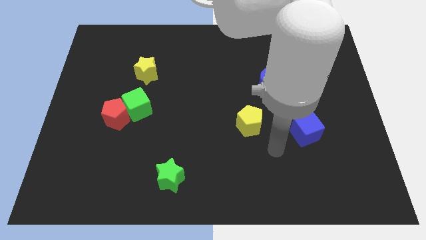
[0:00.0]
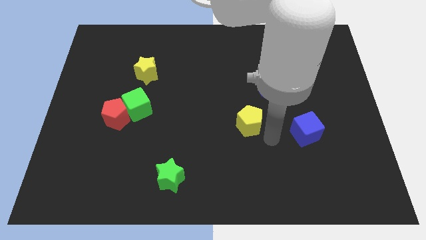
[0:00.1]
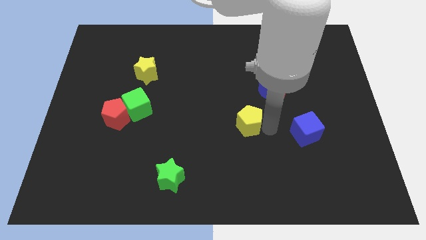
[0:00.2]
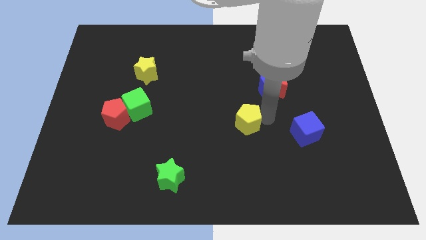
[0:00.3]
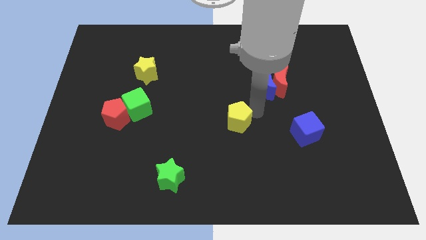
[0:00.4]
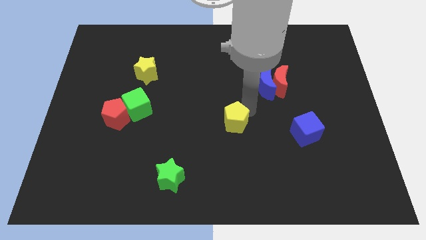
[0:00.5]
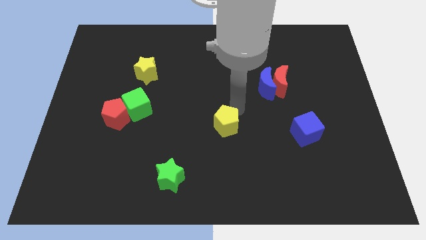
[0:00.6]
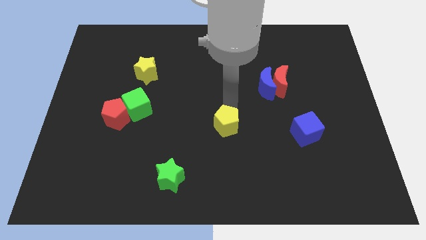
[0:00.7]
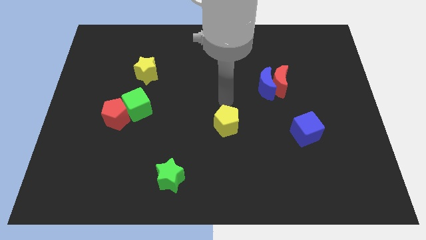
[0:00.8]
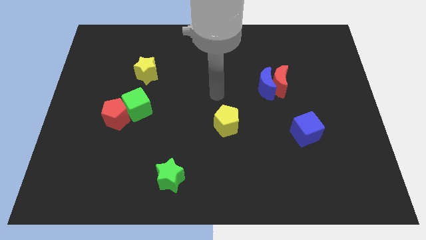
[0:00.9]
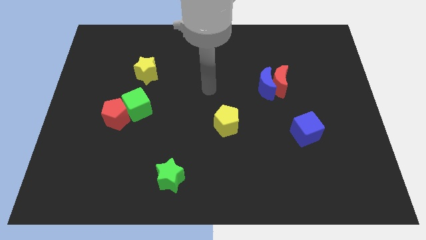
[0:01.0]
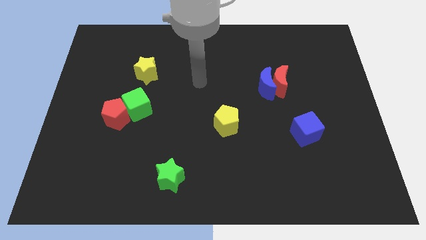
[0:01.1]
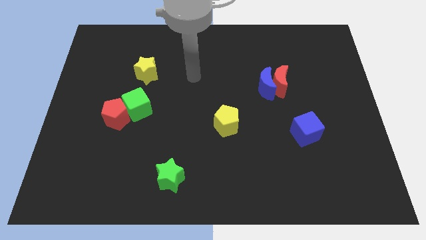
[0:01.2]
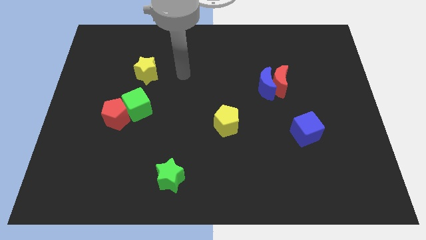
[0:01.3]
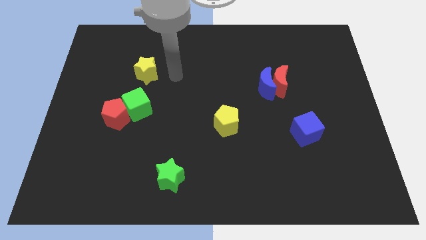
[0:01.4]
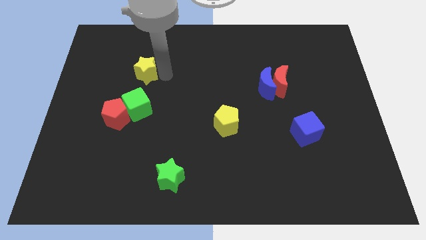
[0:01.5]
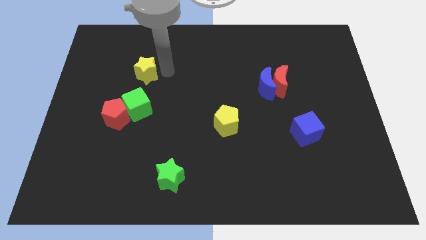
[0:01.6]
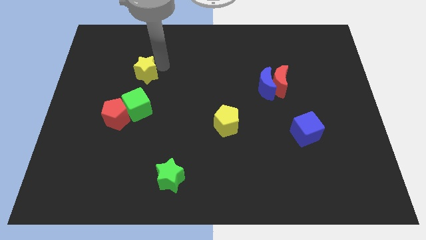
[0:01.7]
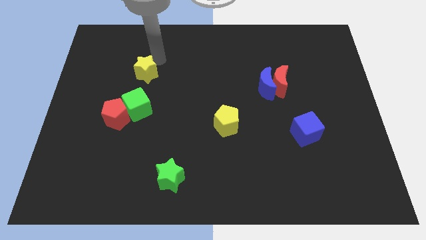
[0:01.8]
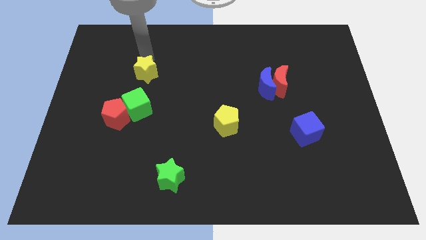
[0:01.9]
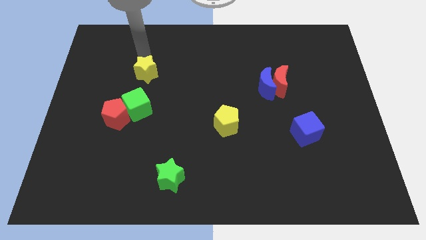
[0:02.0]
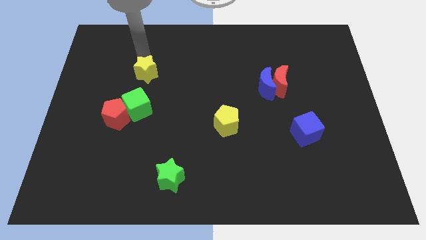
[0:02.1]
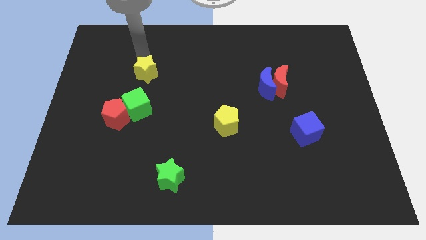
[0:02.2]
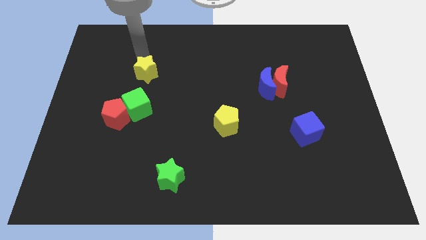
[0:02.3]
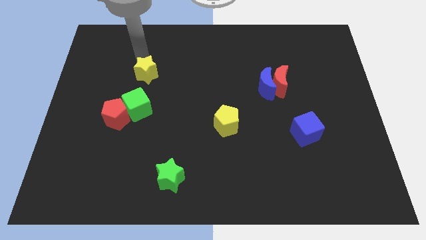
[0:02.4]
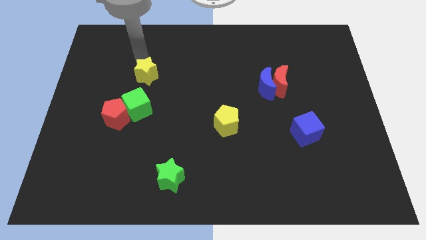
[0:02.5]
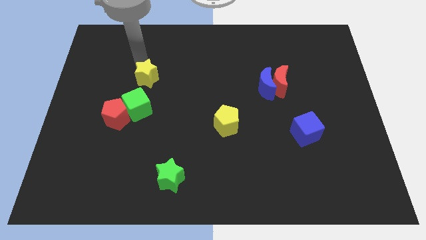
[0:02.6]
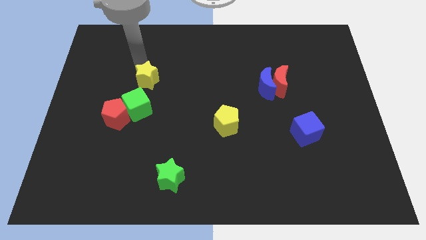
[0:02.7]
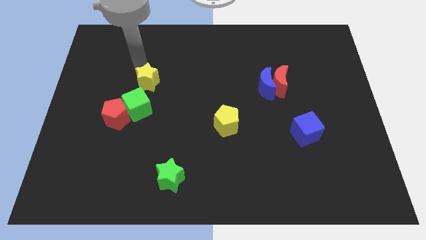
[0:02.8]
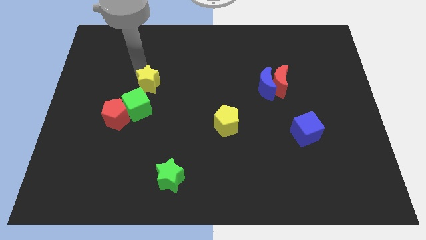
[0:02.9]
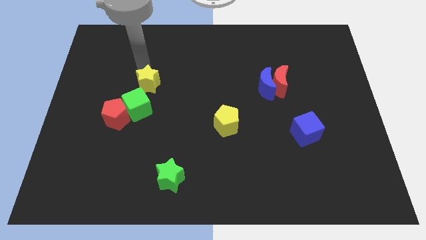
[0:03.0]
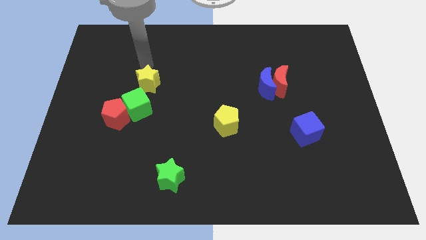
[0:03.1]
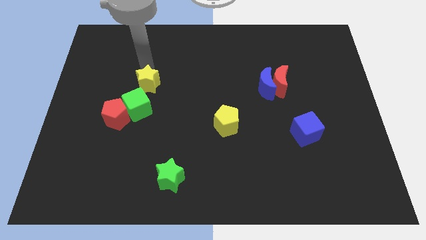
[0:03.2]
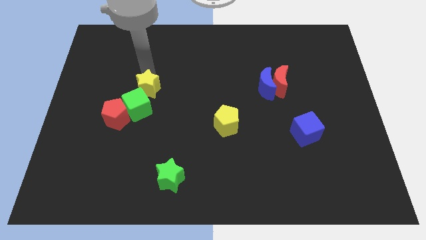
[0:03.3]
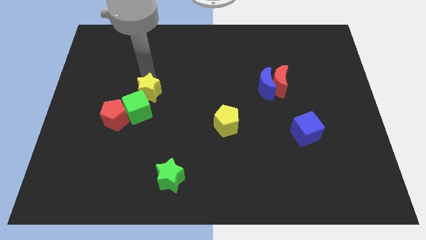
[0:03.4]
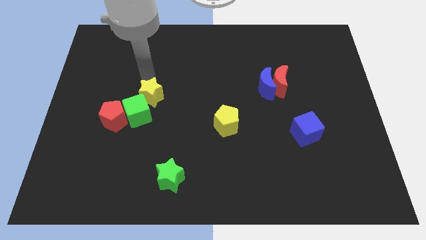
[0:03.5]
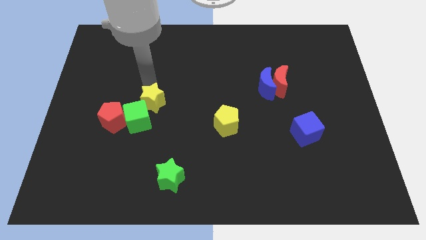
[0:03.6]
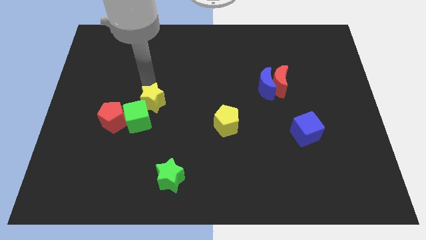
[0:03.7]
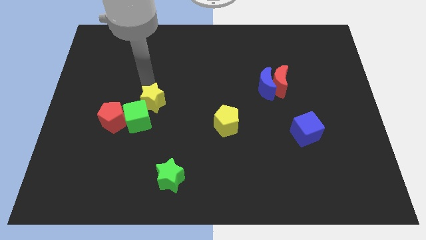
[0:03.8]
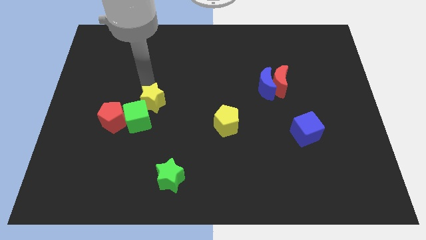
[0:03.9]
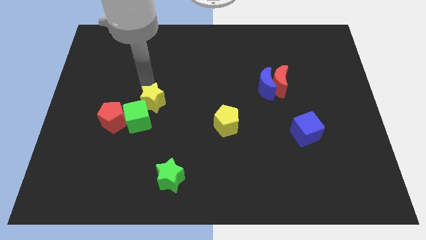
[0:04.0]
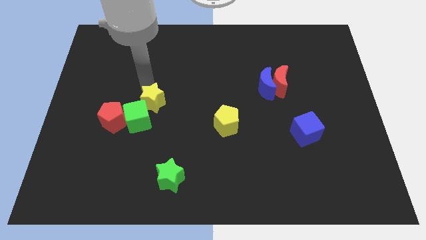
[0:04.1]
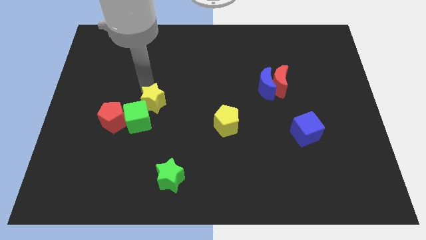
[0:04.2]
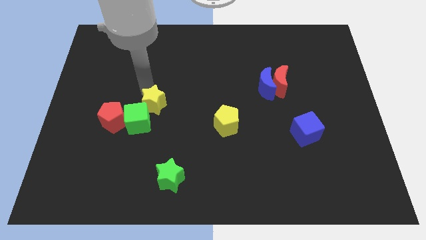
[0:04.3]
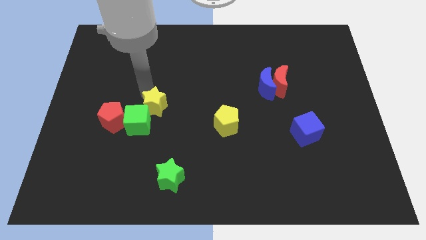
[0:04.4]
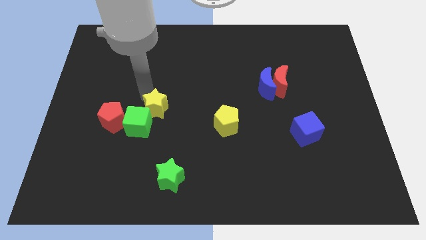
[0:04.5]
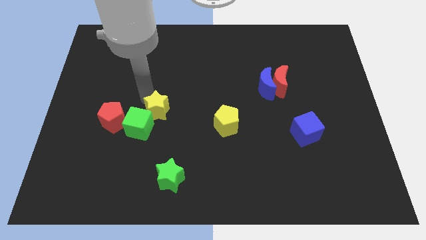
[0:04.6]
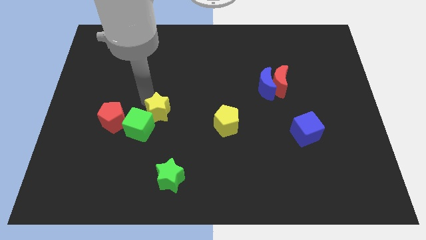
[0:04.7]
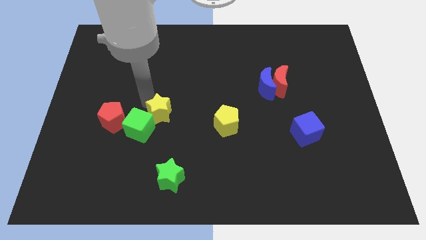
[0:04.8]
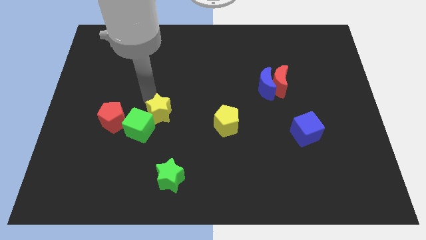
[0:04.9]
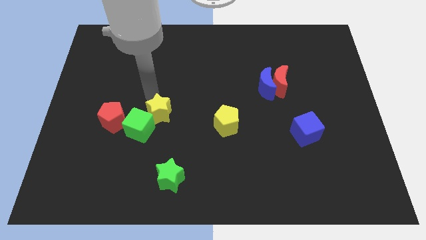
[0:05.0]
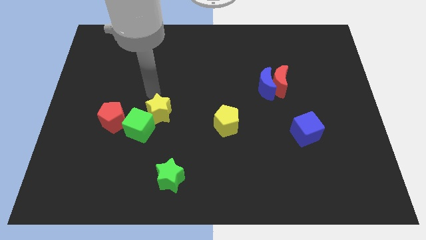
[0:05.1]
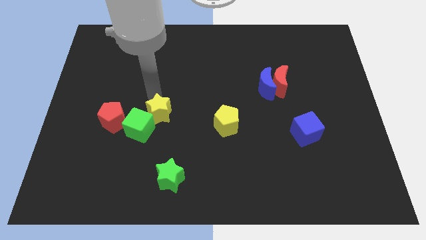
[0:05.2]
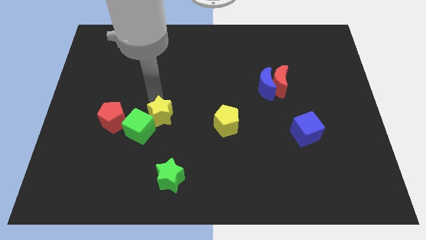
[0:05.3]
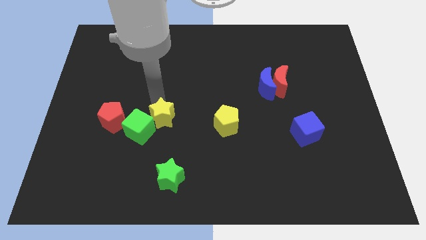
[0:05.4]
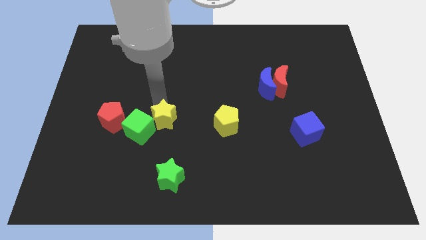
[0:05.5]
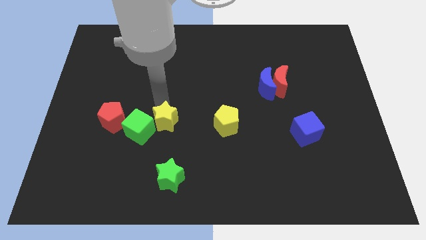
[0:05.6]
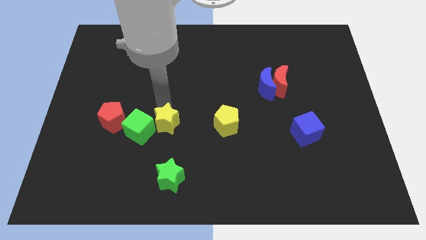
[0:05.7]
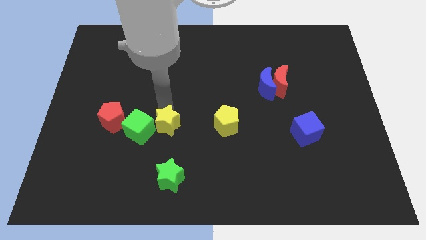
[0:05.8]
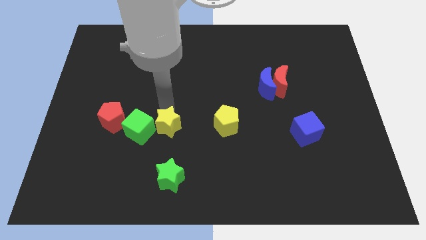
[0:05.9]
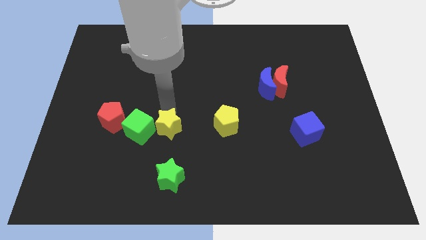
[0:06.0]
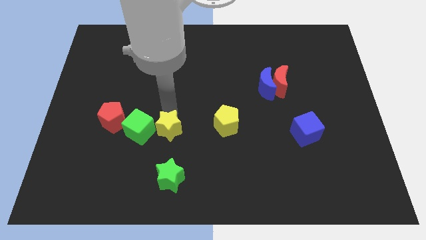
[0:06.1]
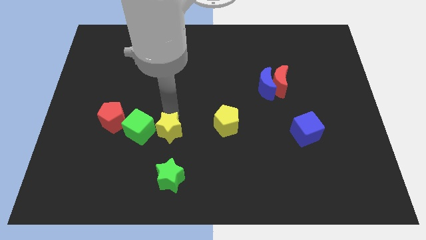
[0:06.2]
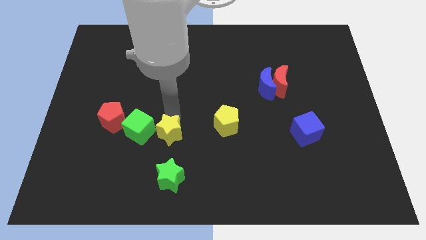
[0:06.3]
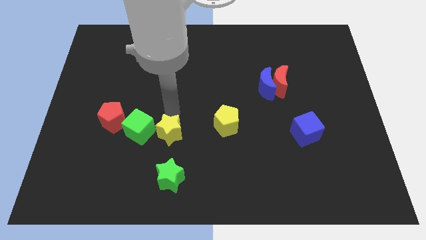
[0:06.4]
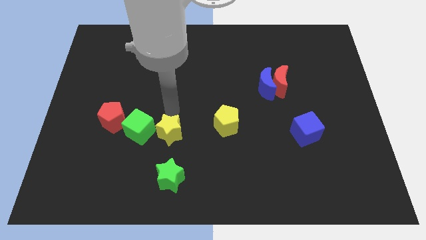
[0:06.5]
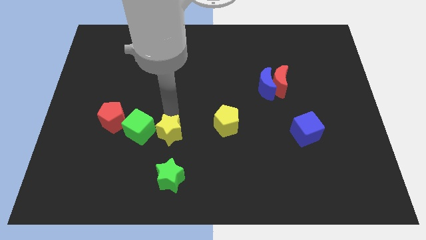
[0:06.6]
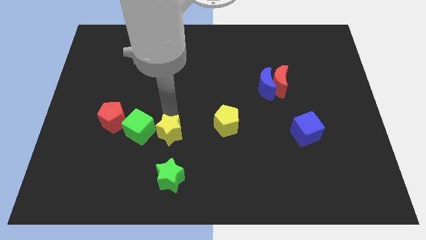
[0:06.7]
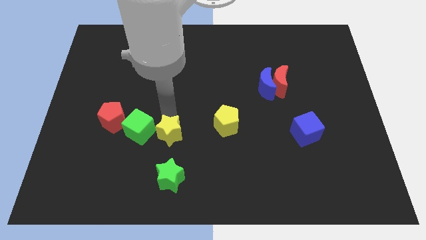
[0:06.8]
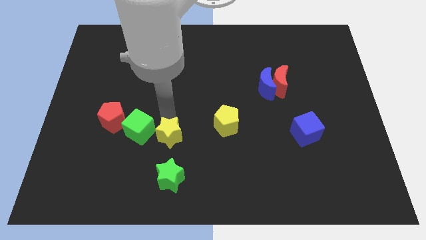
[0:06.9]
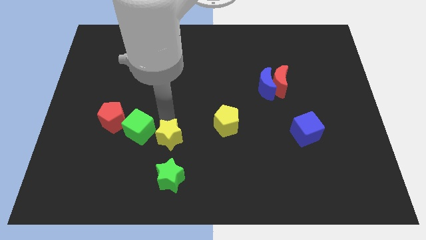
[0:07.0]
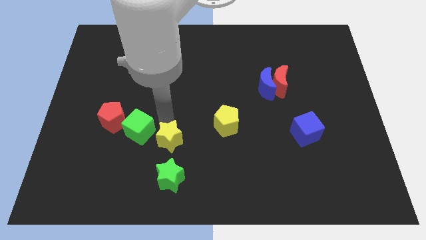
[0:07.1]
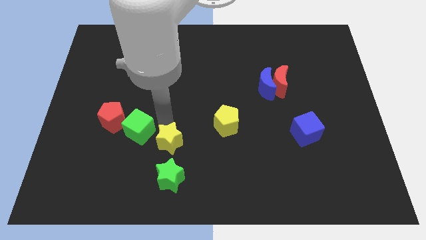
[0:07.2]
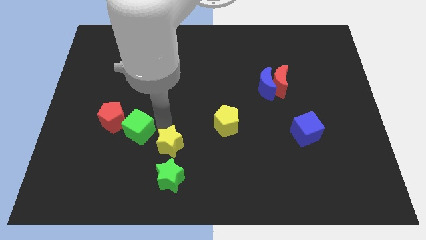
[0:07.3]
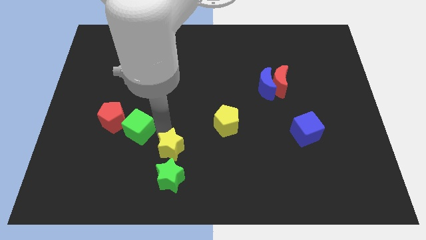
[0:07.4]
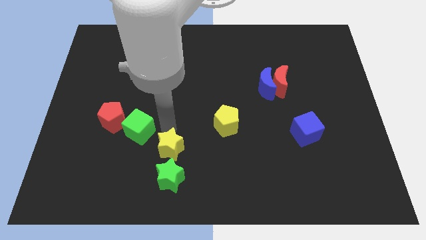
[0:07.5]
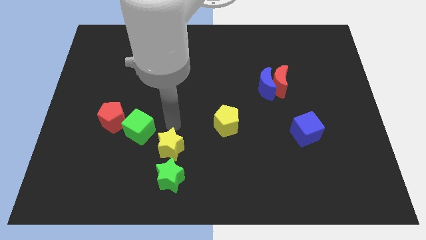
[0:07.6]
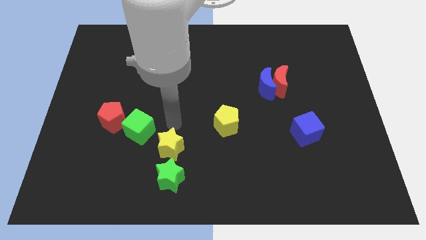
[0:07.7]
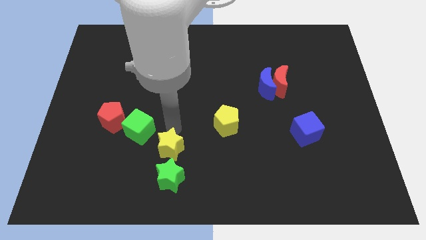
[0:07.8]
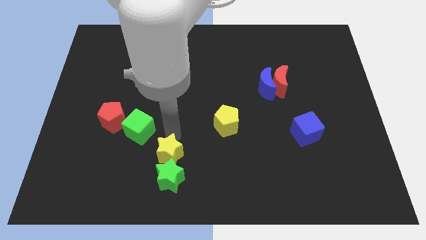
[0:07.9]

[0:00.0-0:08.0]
slide the yellow star close to the green star
